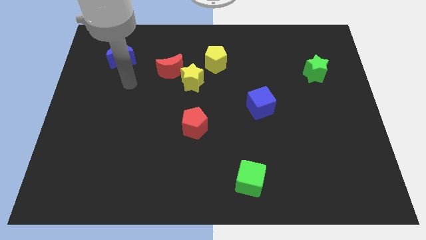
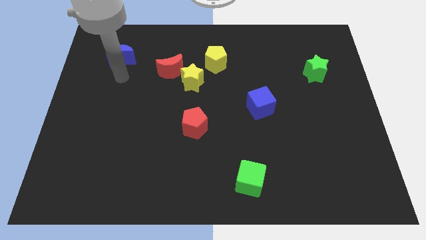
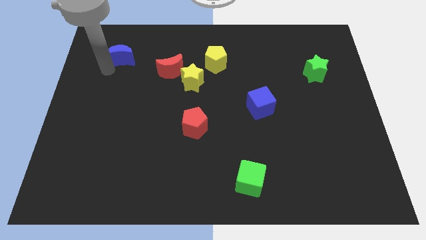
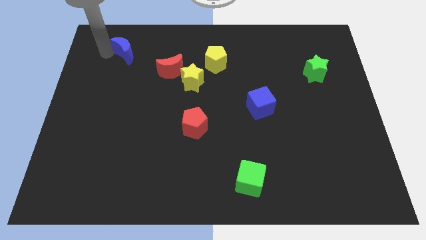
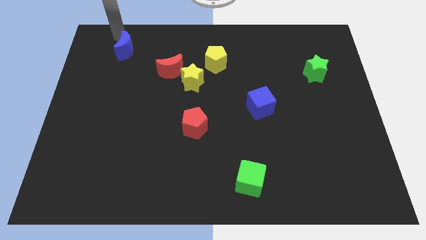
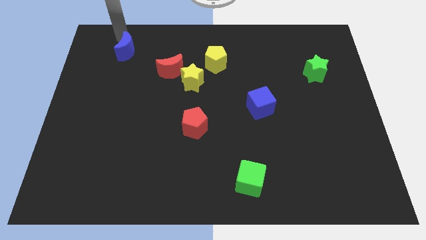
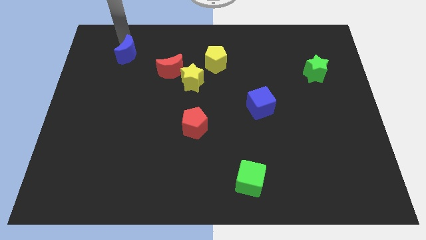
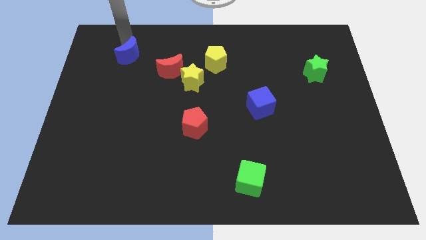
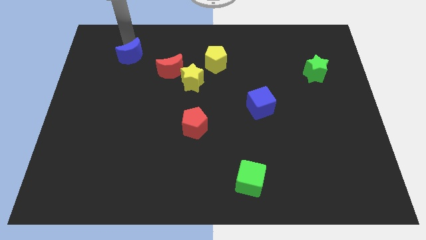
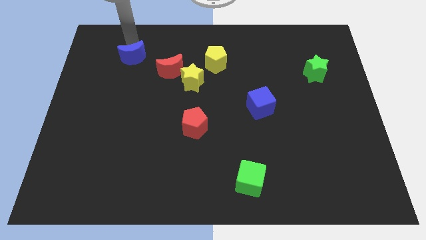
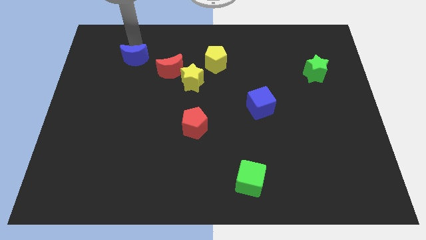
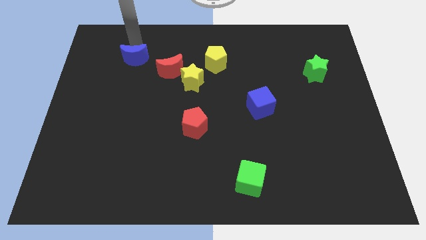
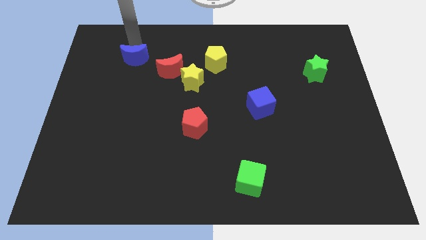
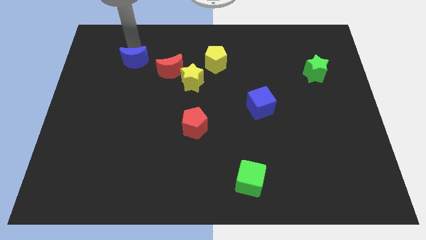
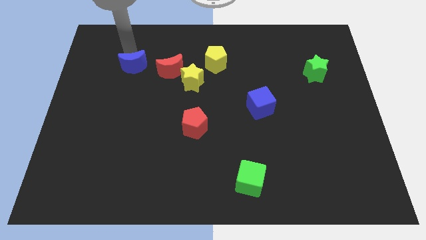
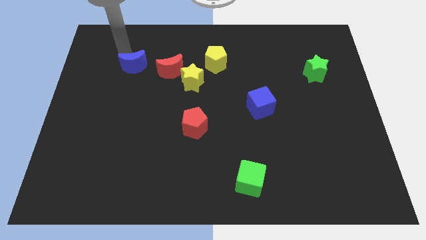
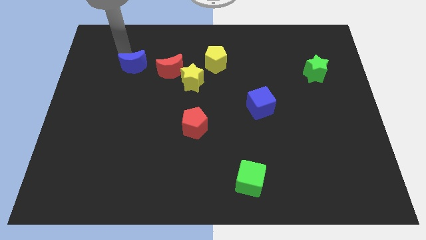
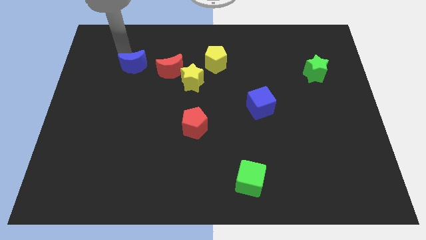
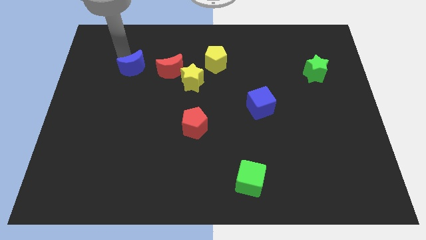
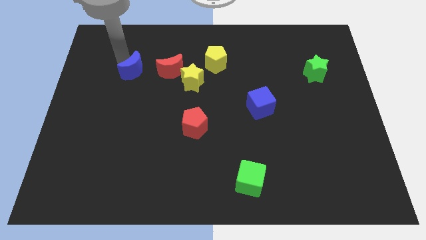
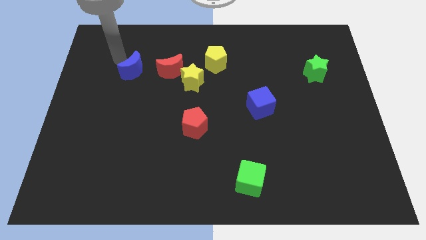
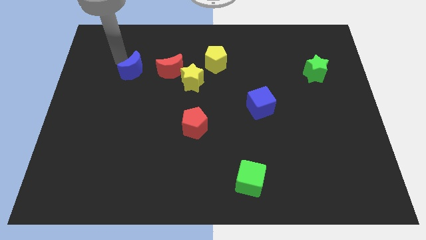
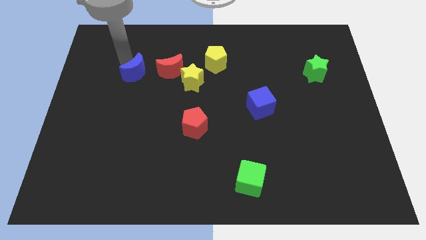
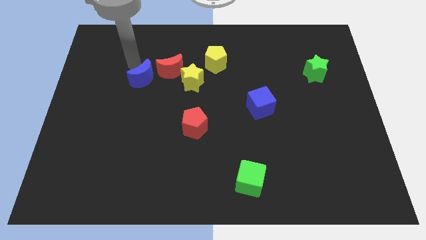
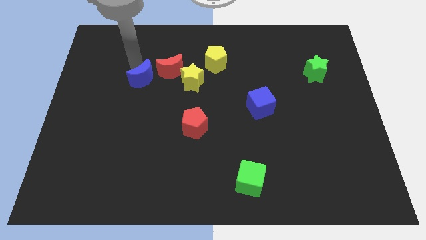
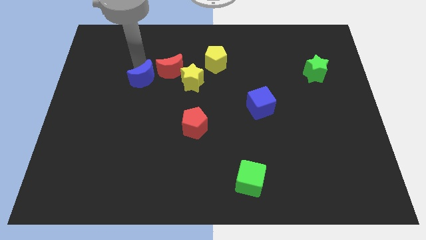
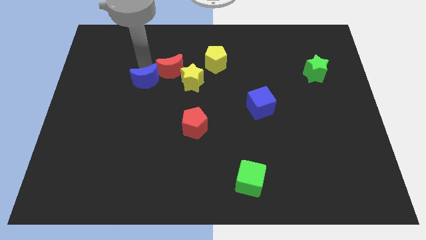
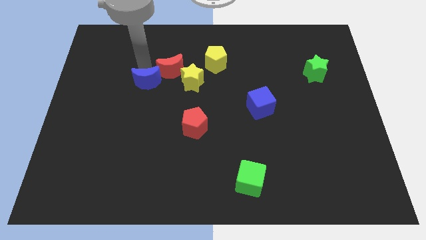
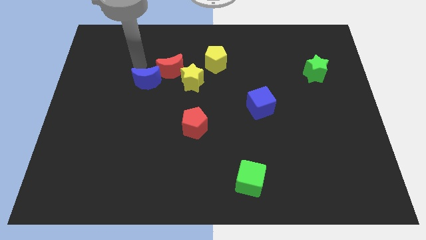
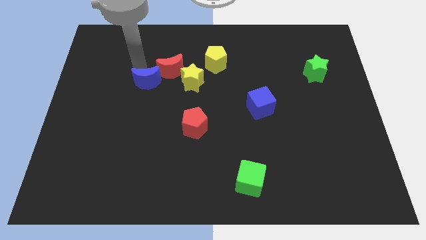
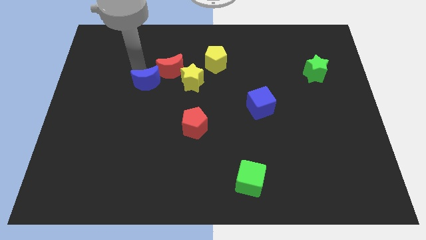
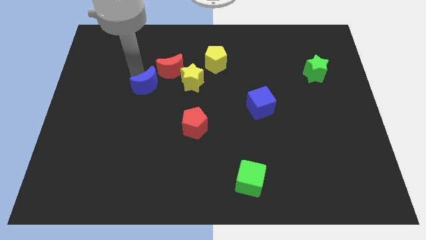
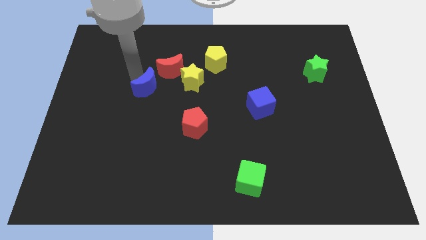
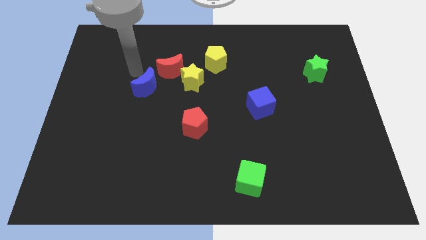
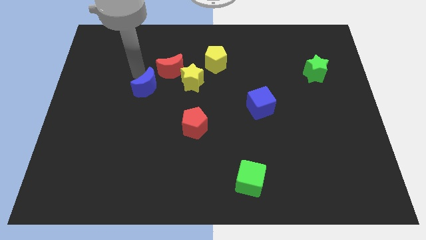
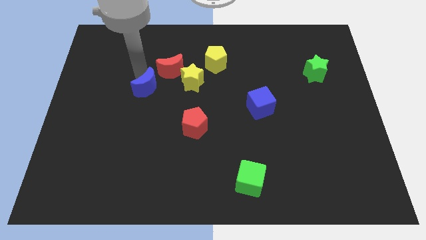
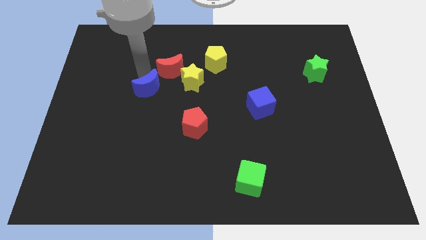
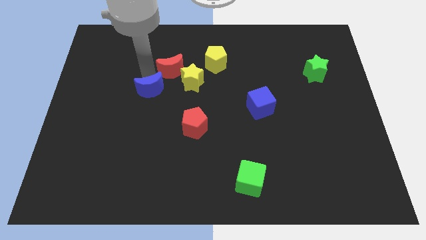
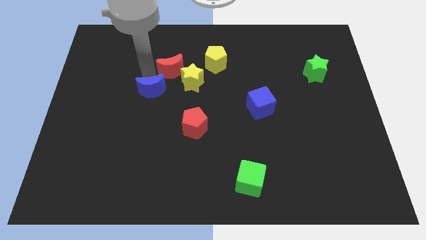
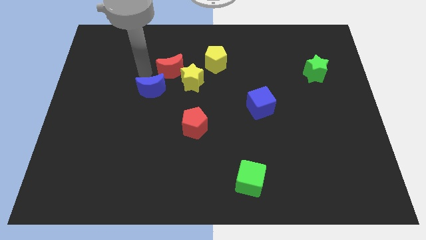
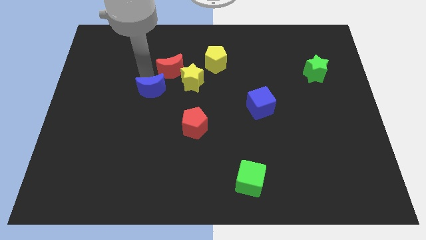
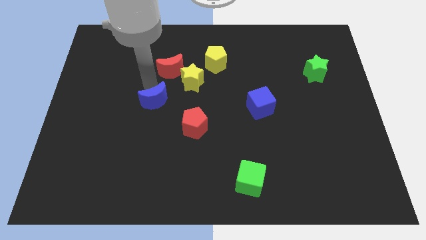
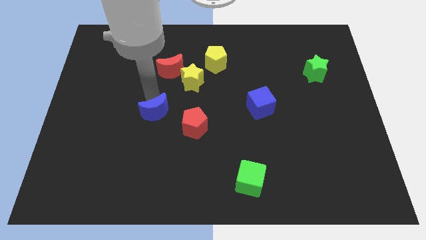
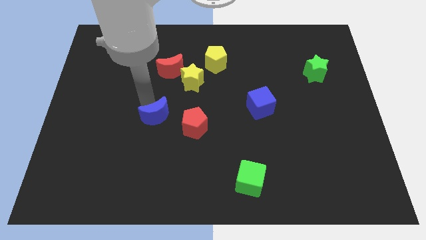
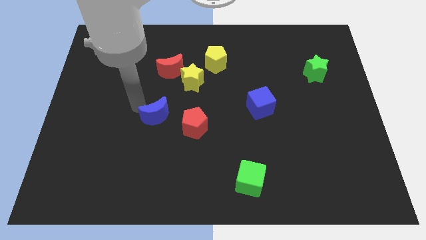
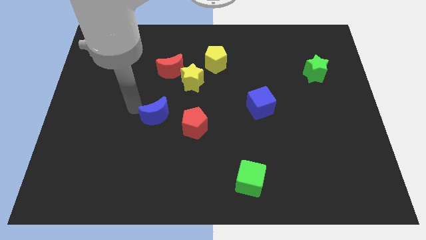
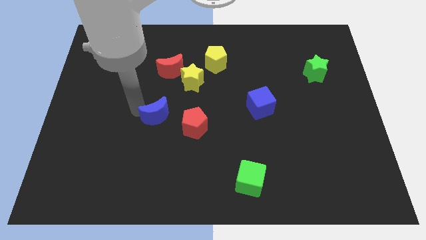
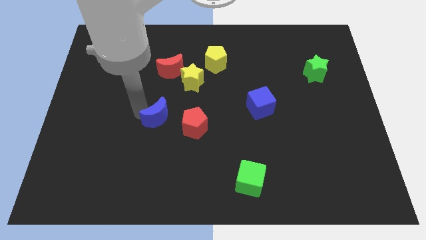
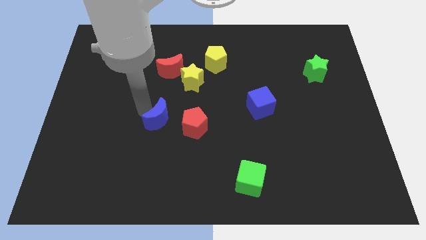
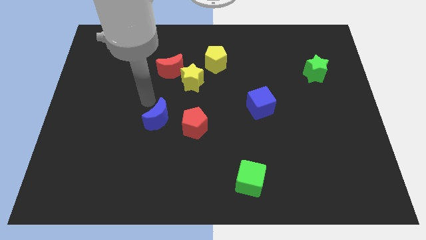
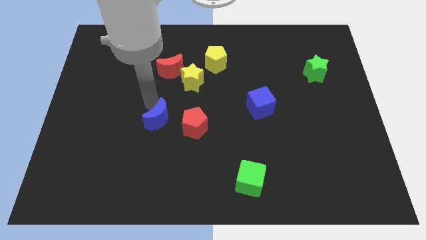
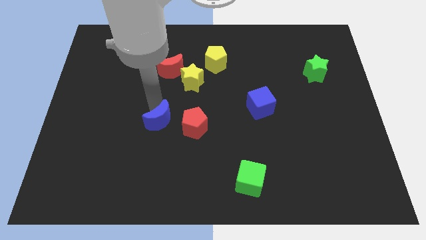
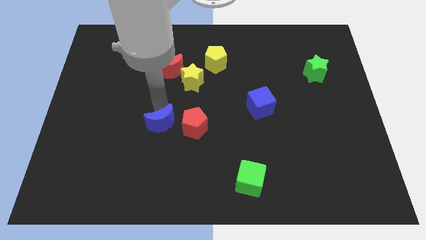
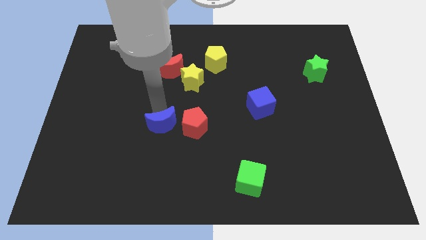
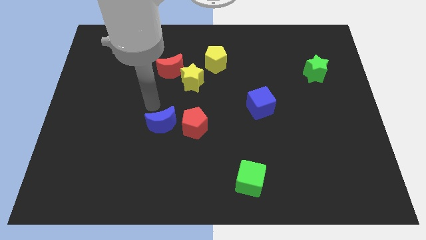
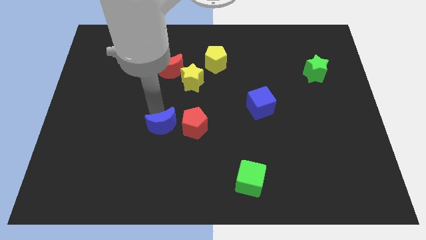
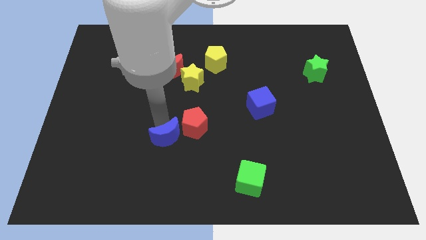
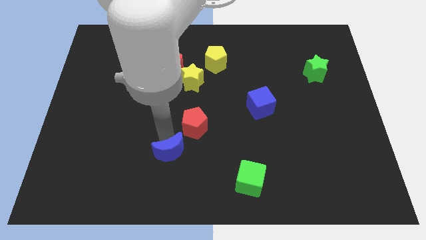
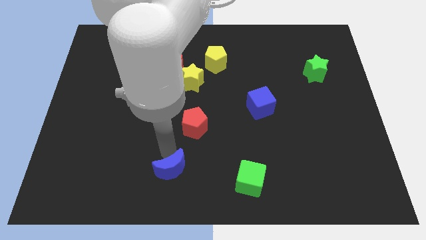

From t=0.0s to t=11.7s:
slide the blue moon to the bottom side

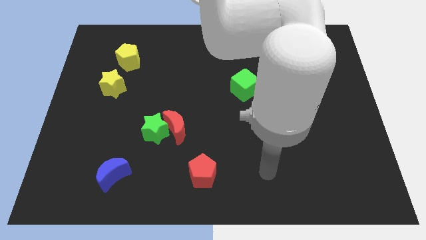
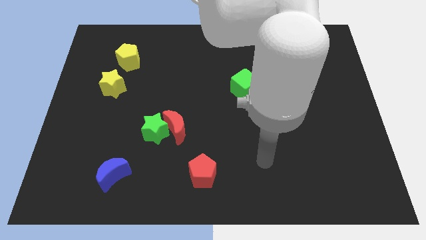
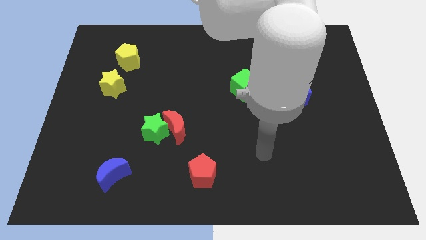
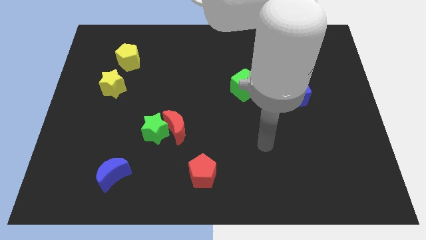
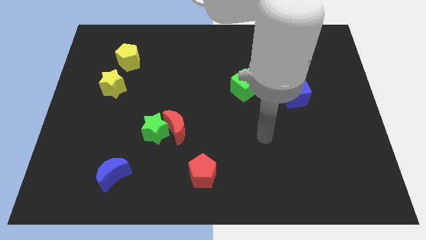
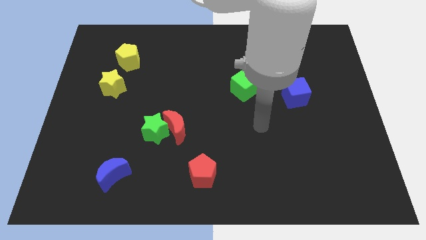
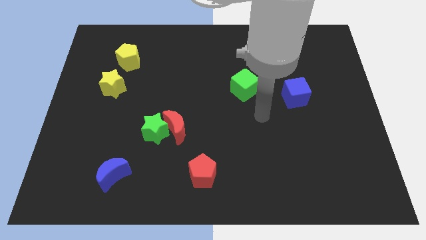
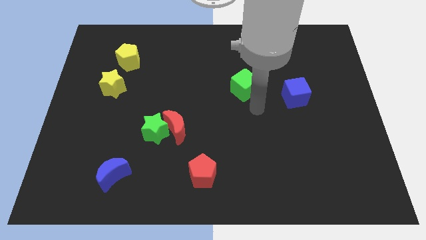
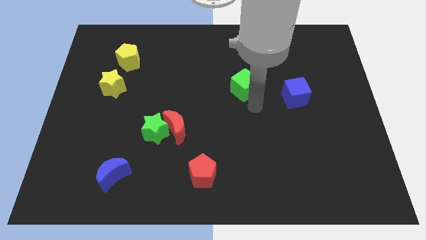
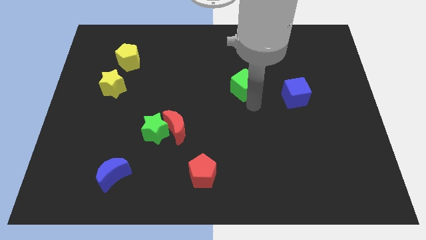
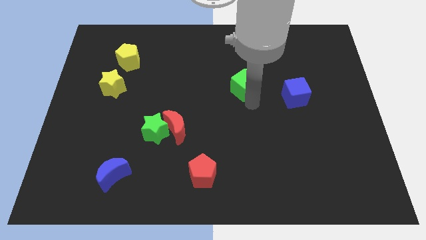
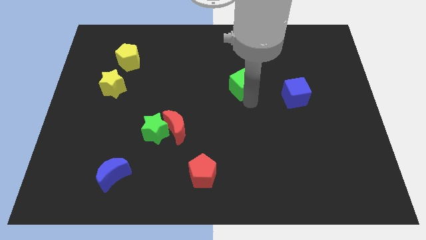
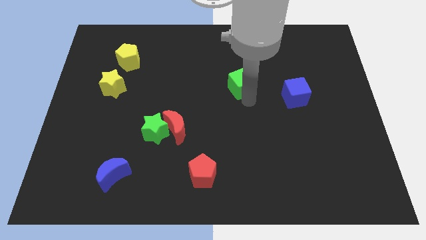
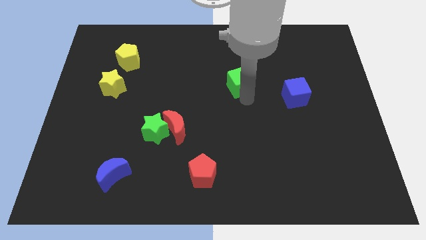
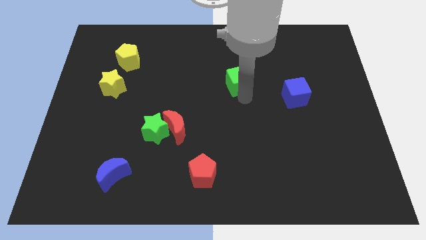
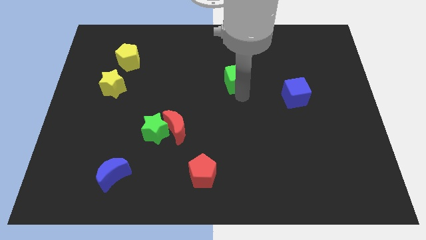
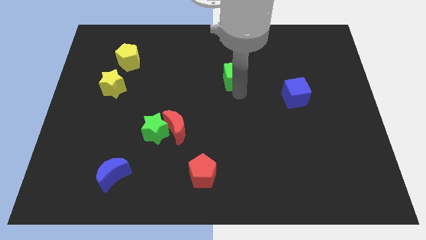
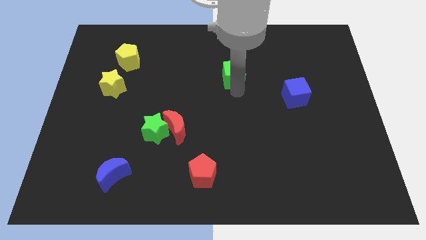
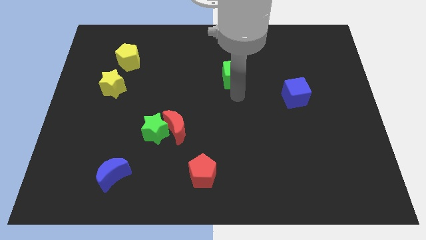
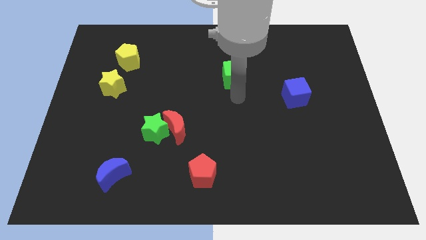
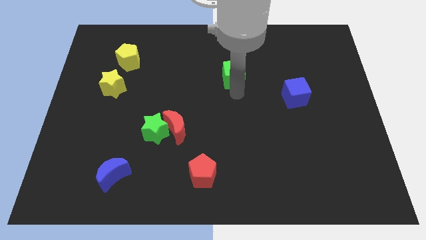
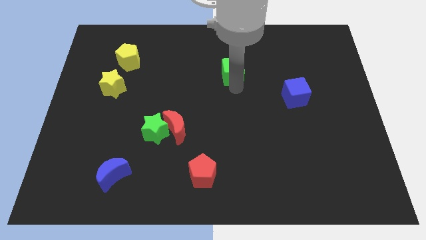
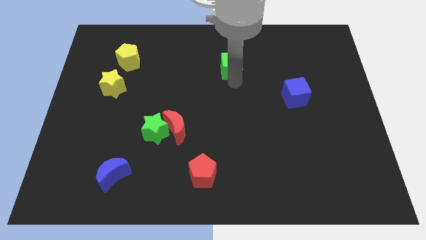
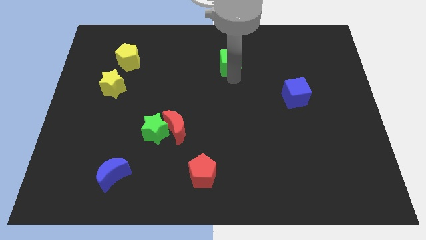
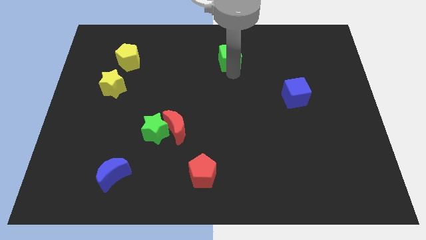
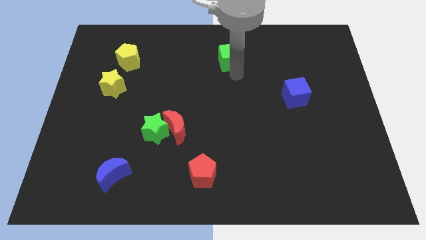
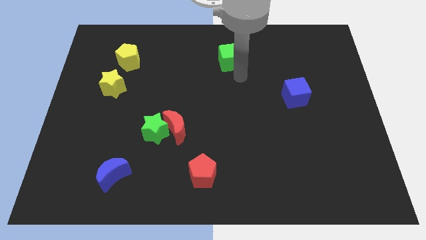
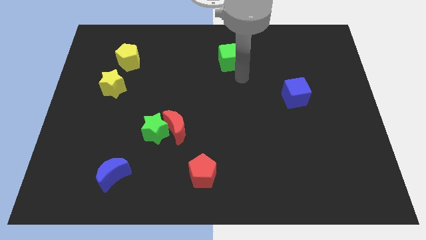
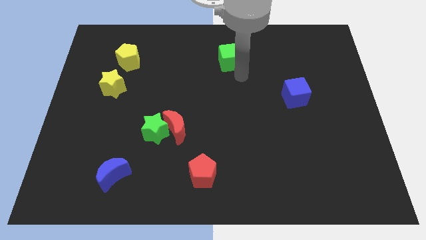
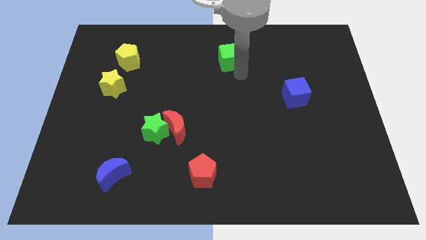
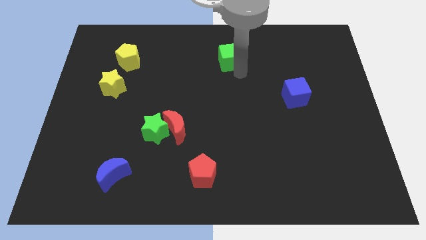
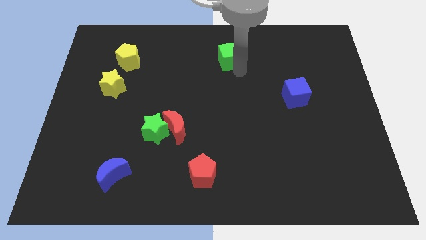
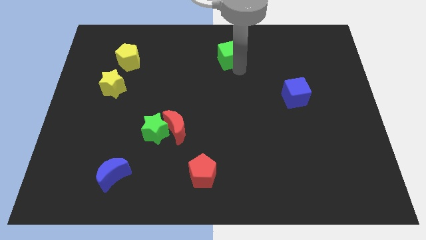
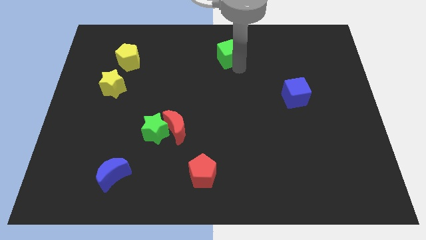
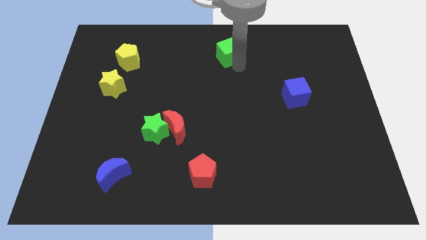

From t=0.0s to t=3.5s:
put the green cube to the top
